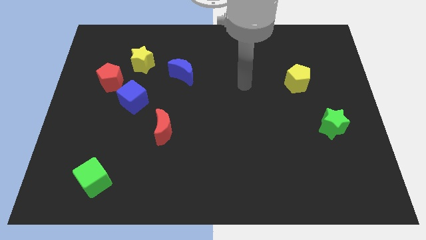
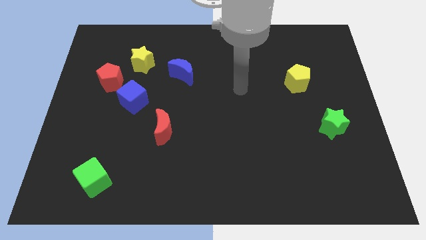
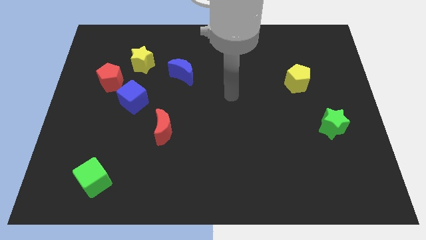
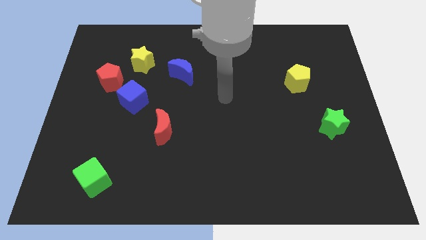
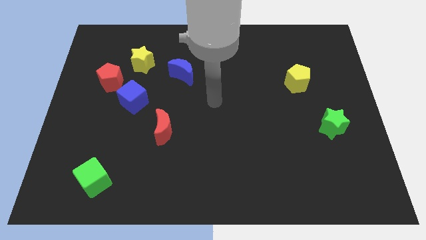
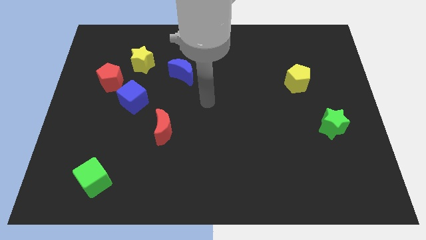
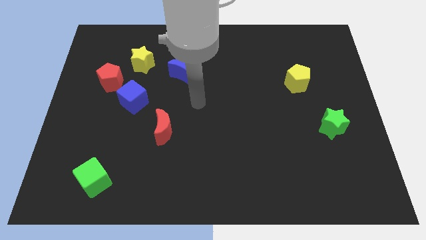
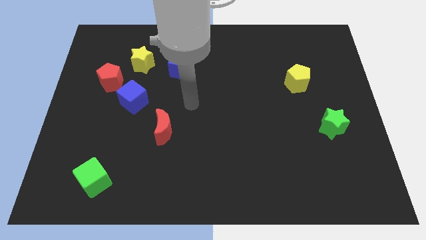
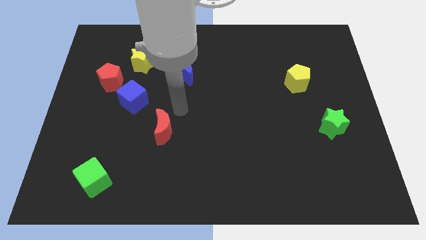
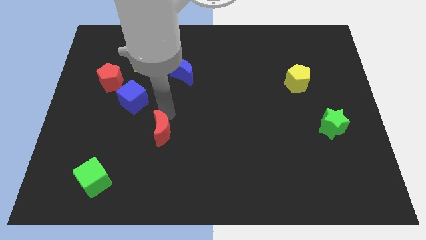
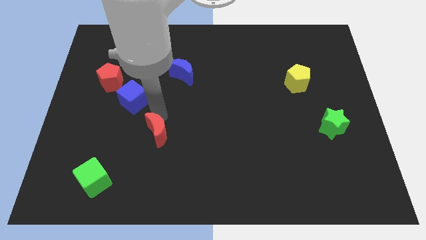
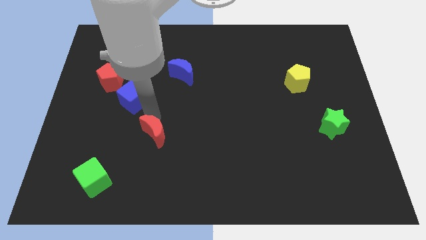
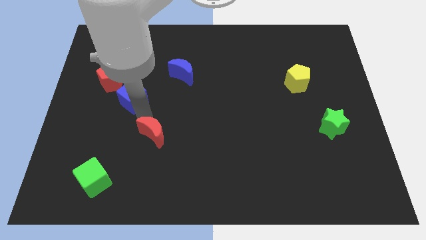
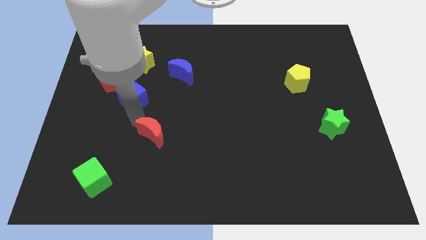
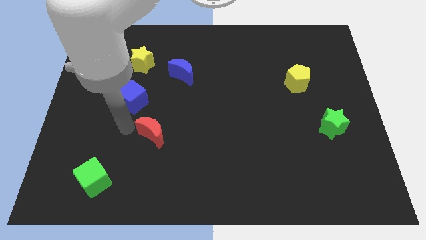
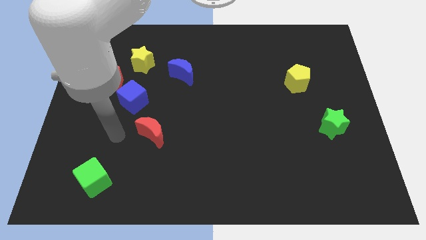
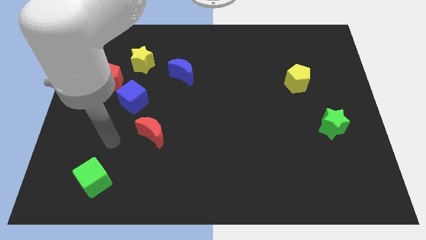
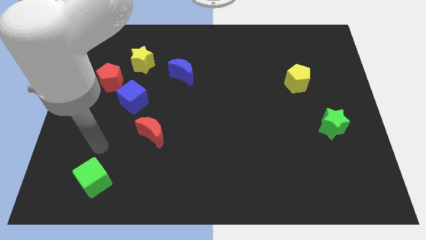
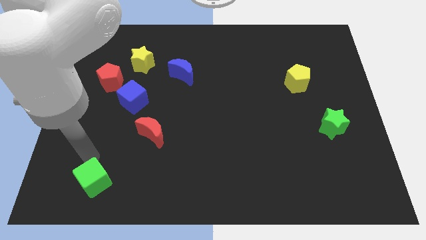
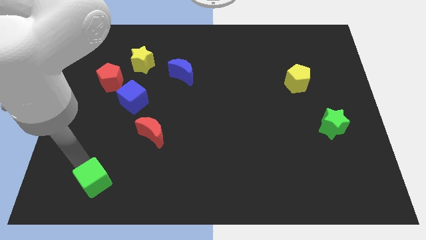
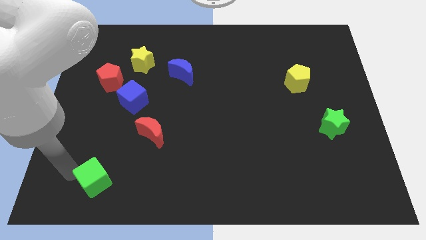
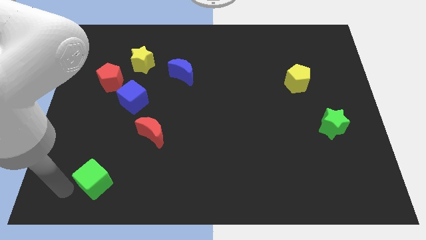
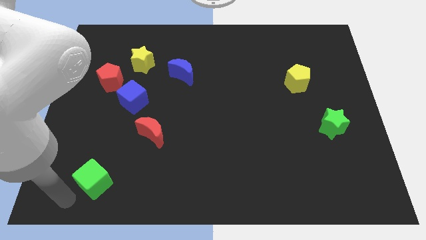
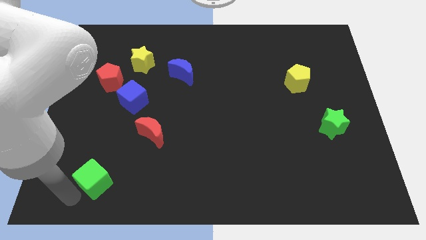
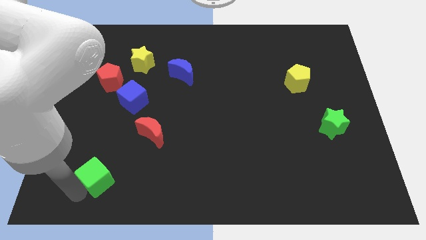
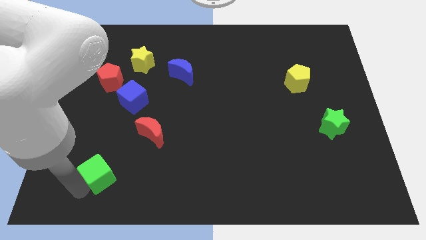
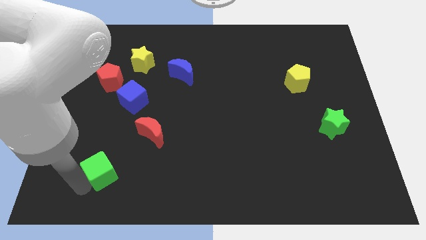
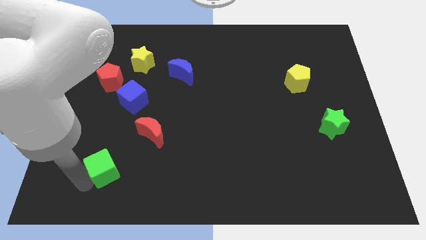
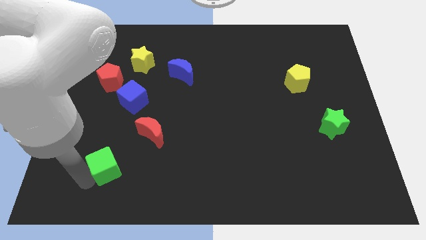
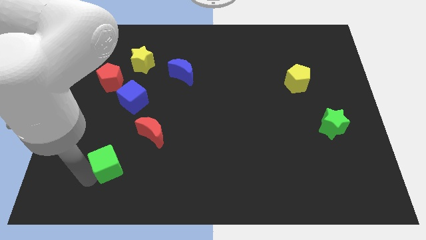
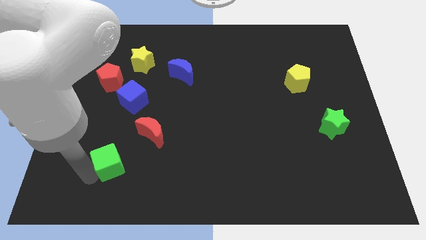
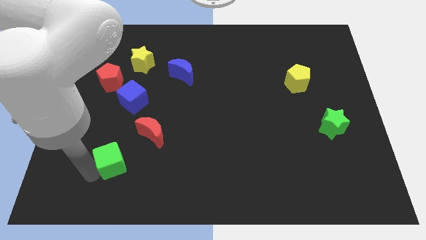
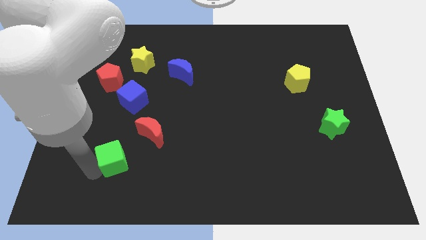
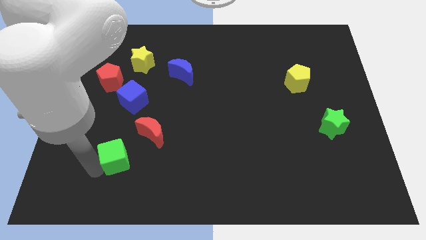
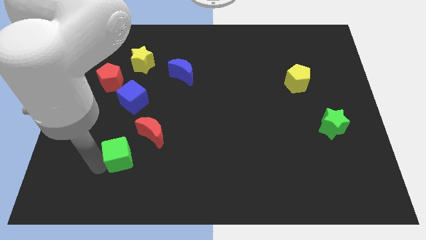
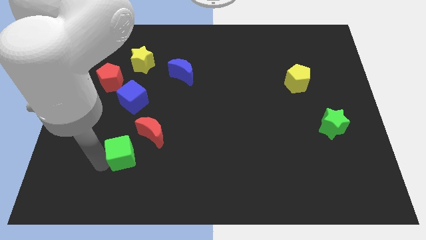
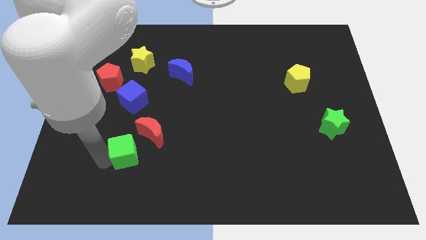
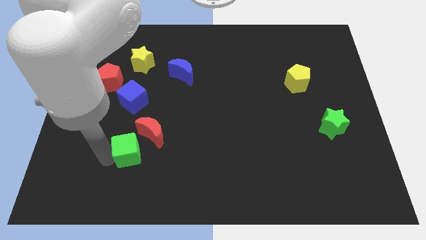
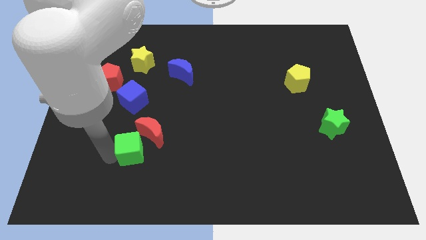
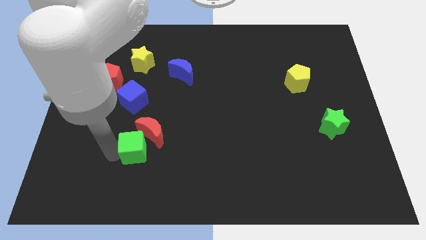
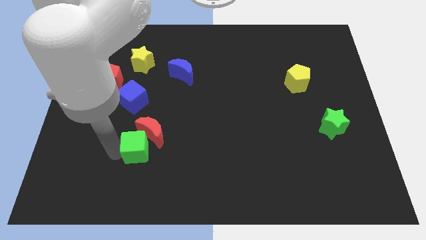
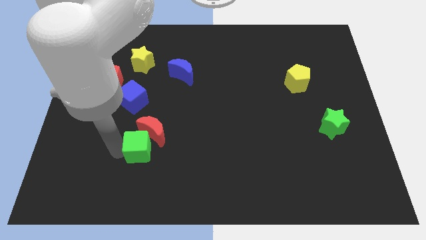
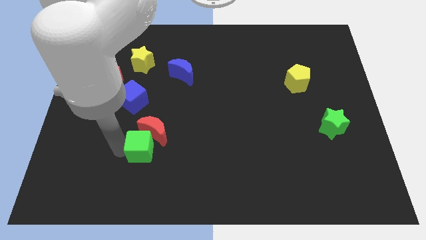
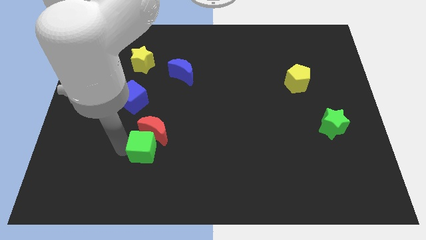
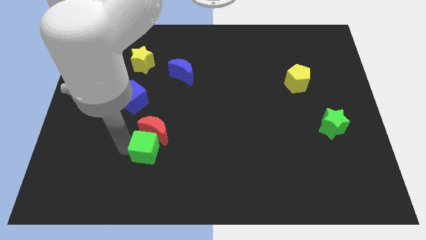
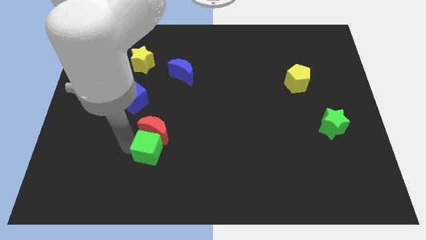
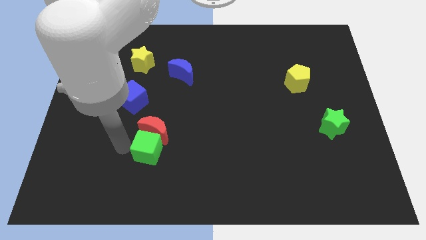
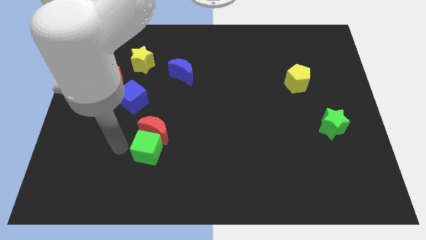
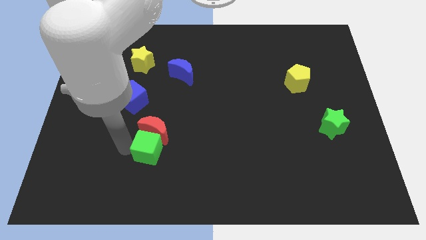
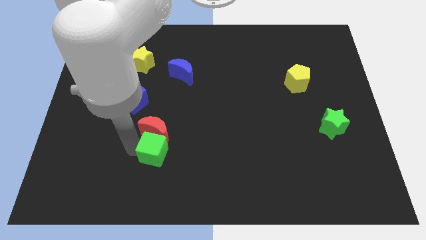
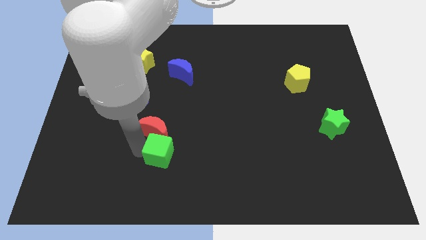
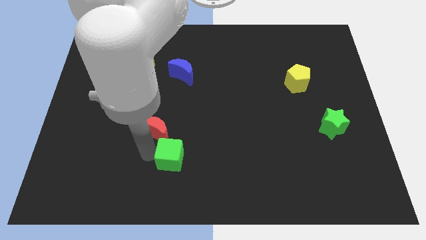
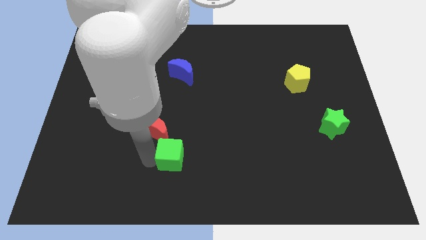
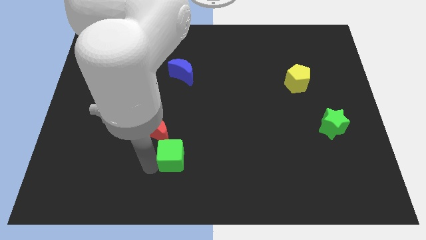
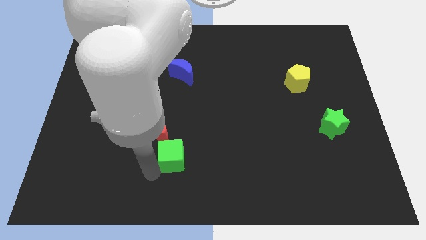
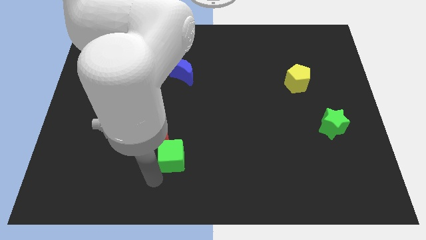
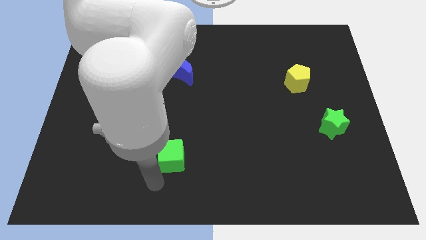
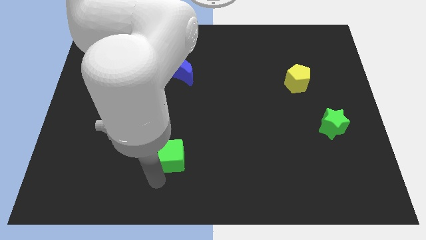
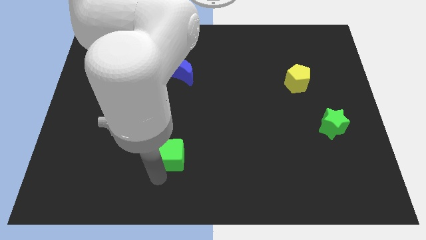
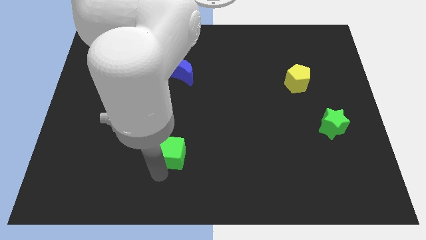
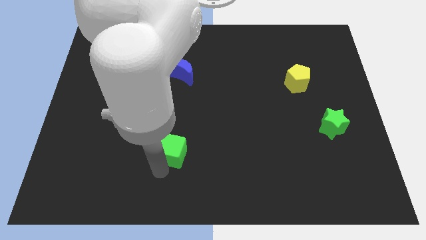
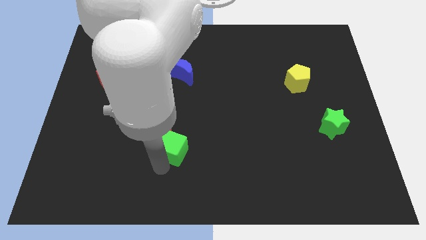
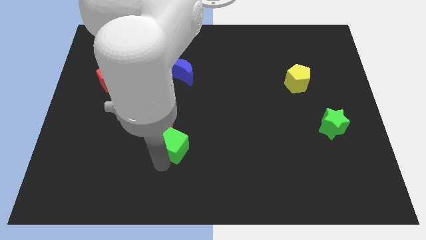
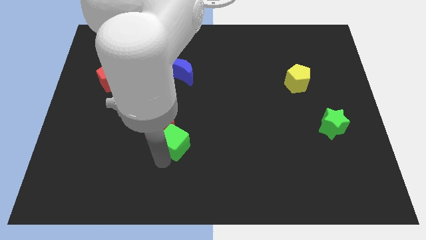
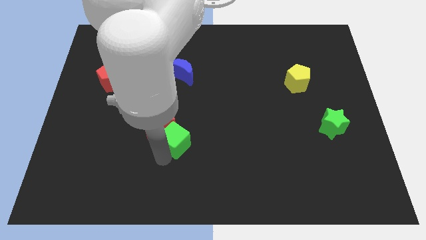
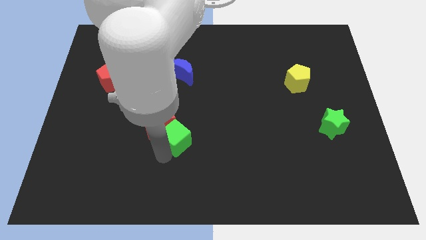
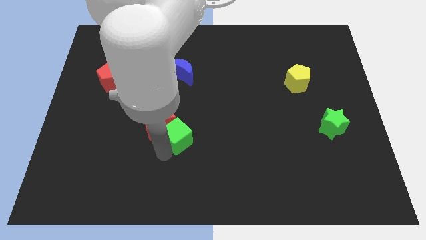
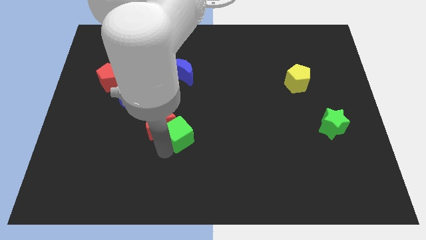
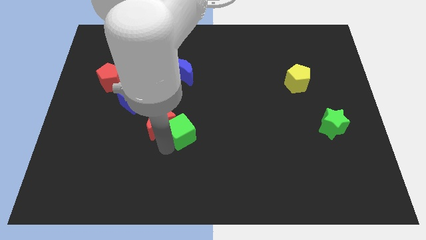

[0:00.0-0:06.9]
move the green cube to the center
